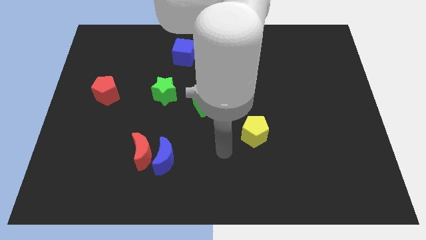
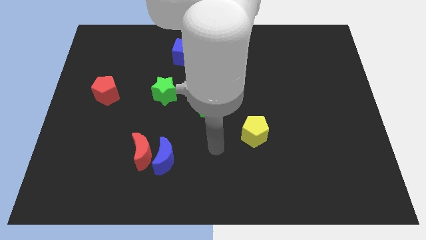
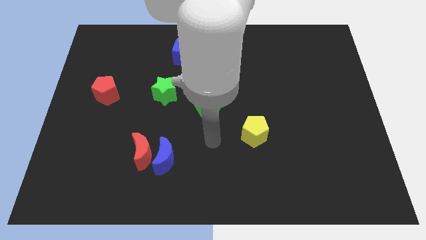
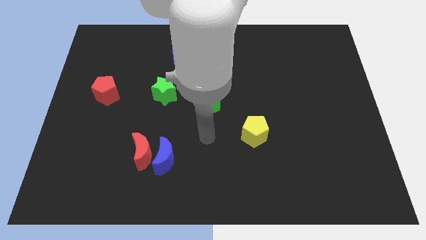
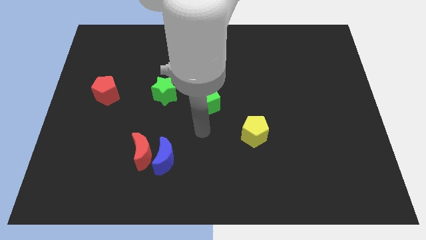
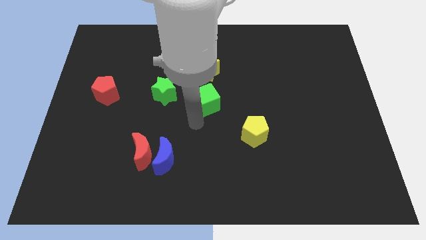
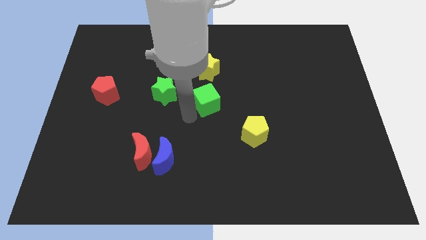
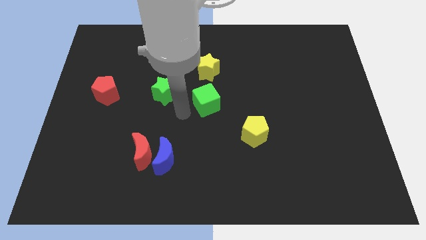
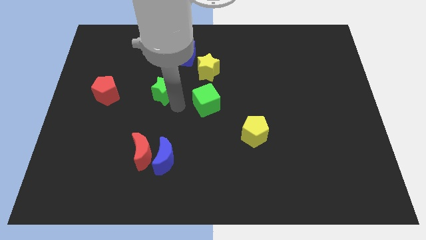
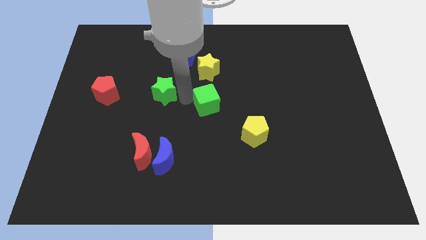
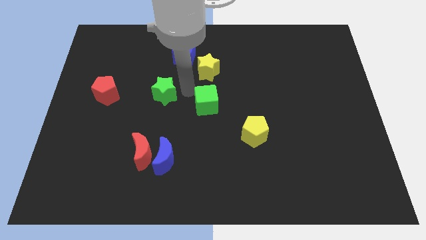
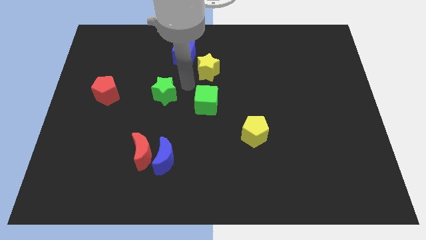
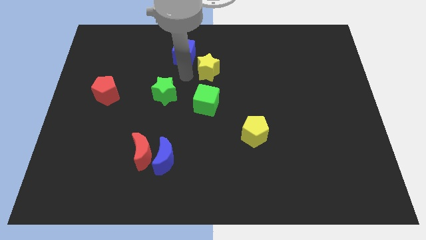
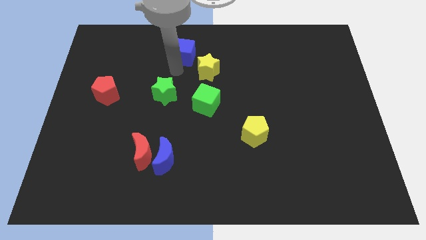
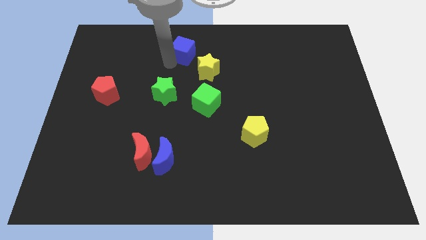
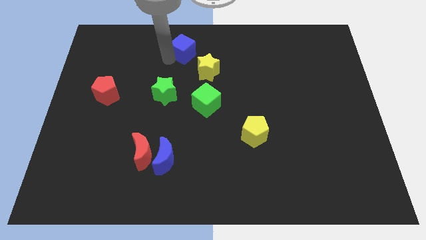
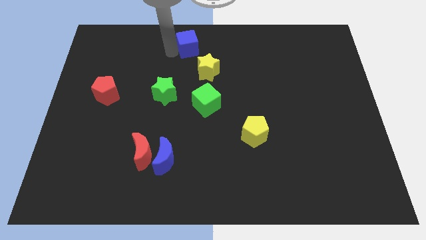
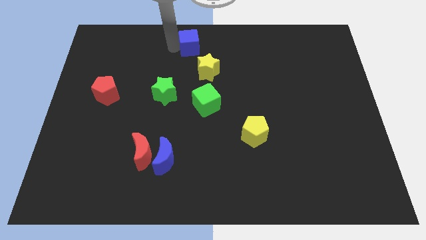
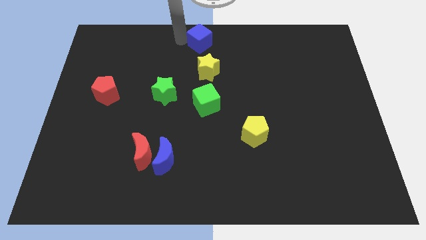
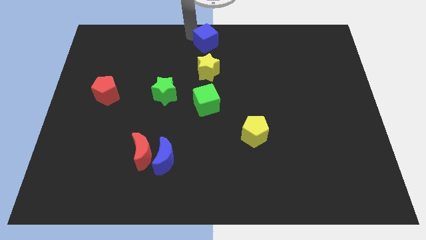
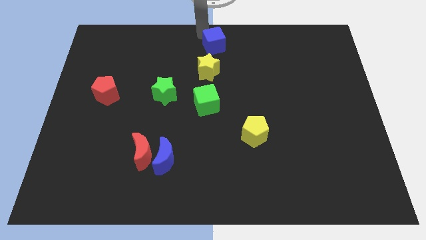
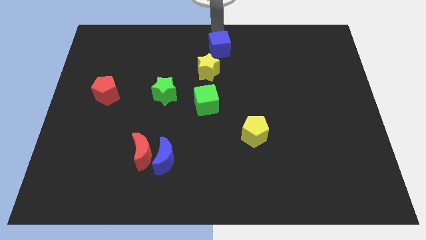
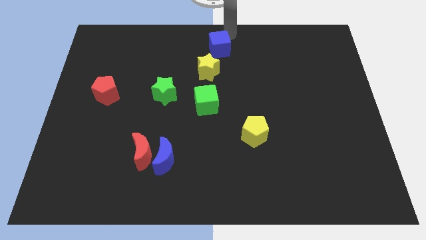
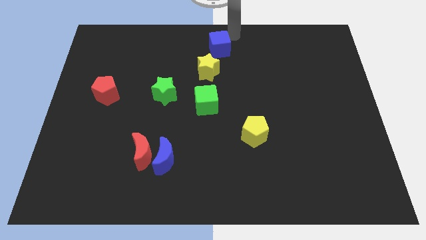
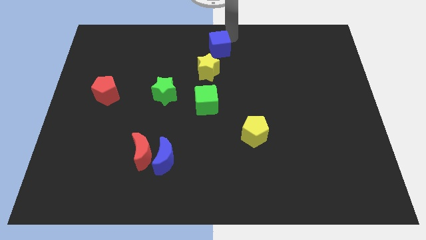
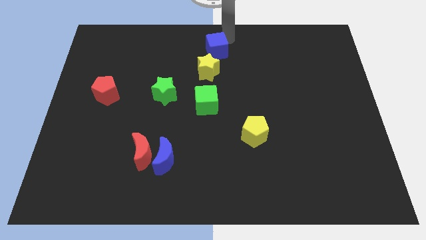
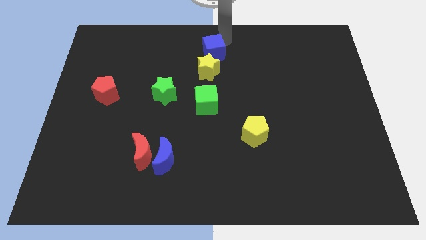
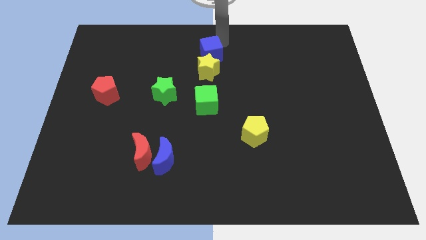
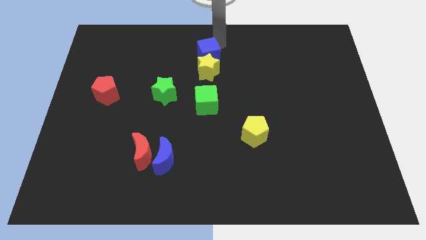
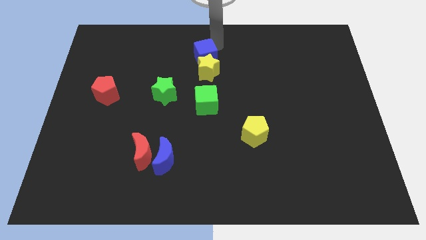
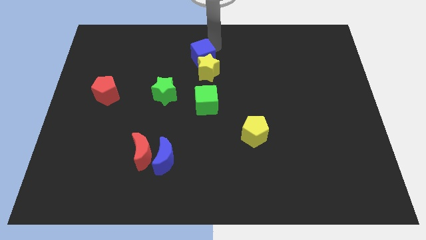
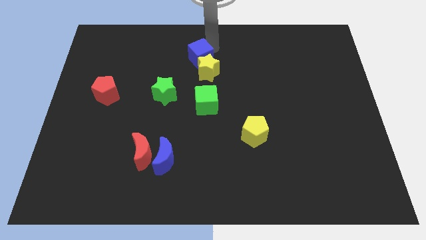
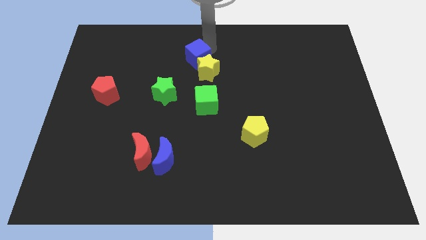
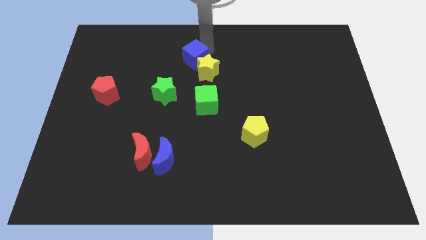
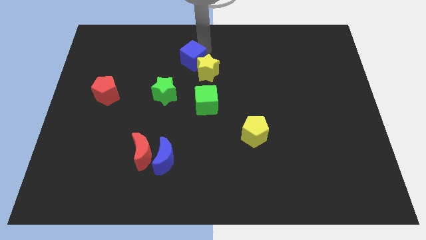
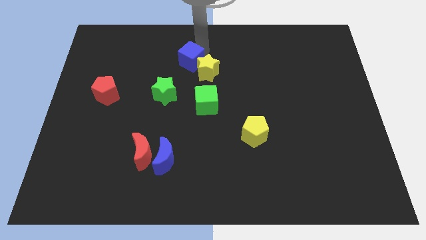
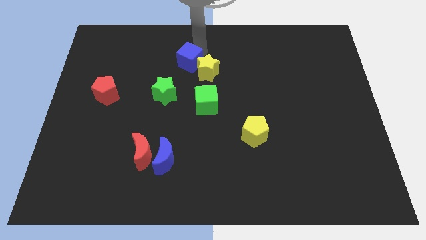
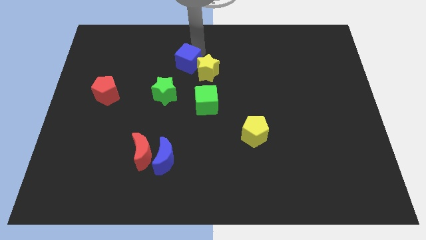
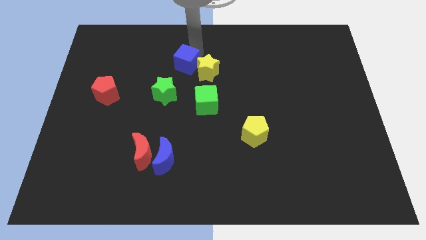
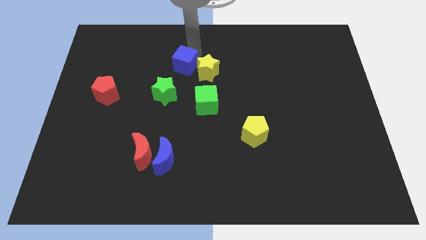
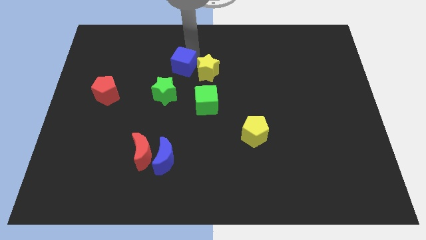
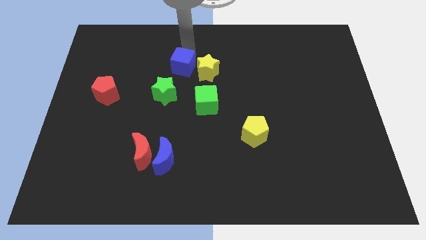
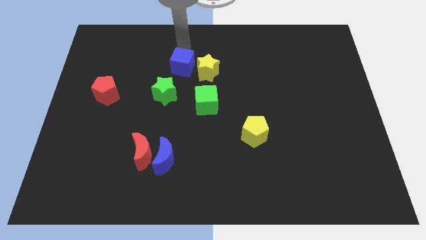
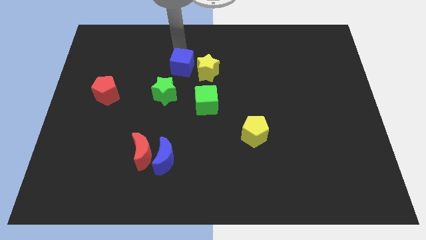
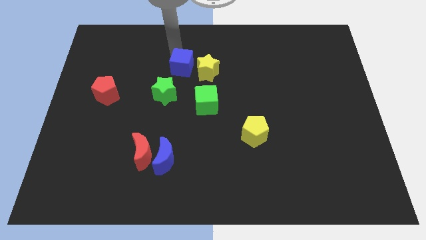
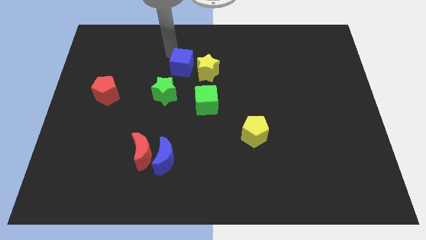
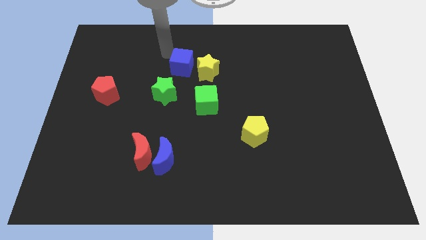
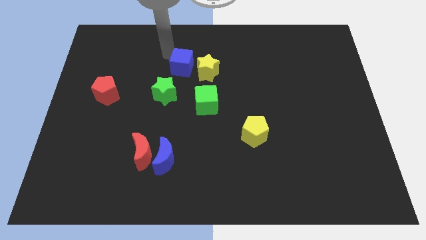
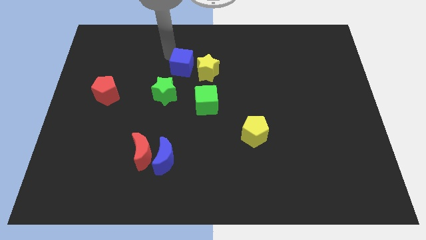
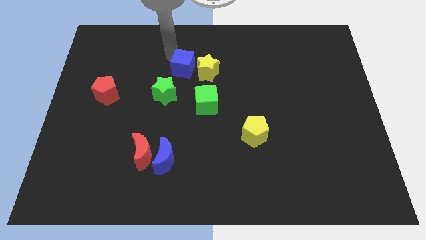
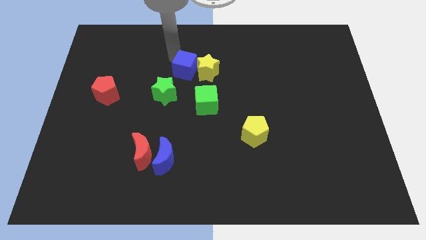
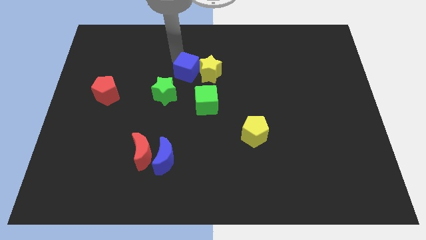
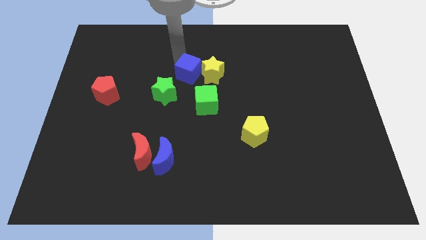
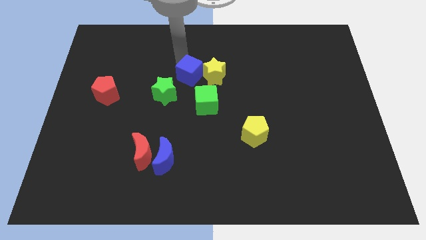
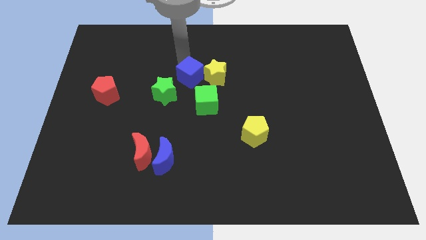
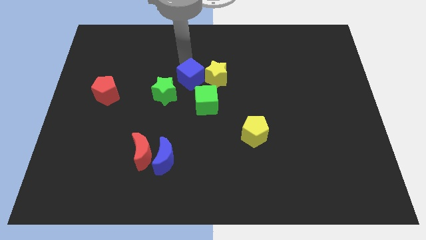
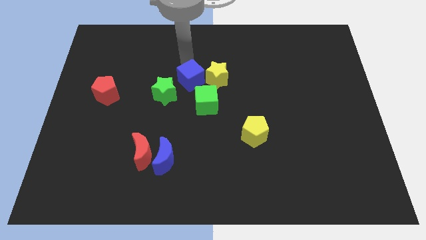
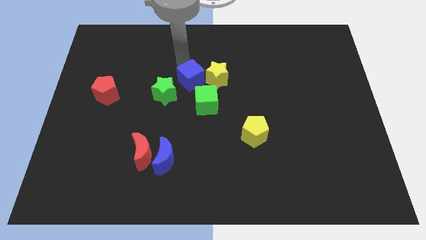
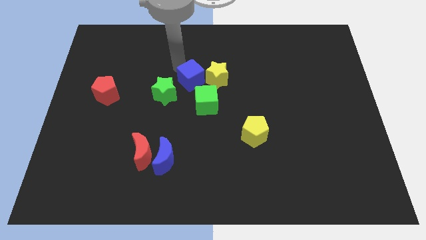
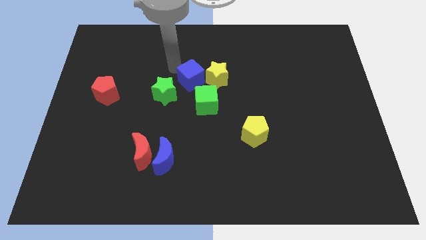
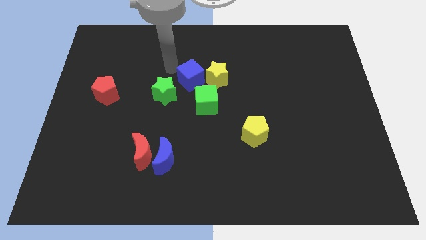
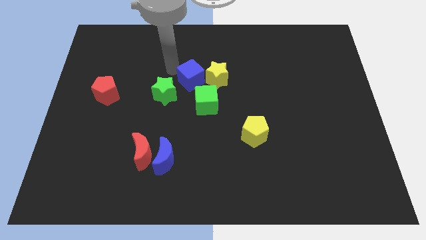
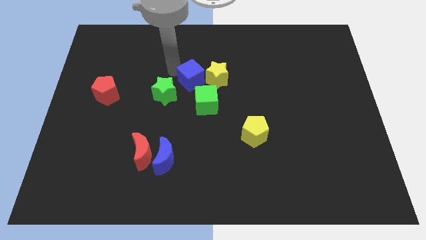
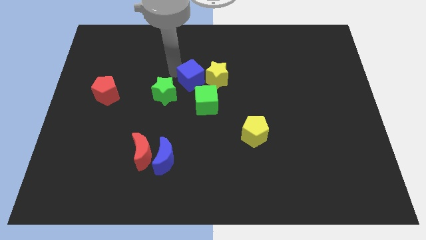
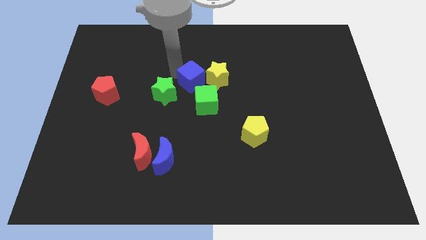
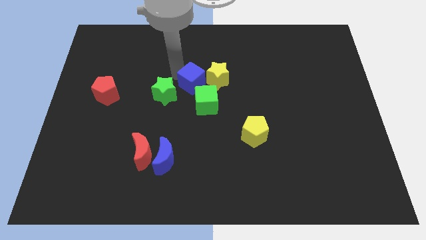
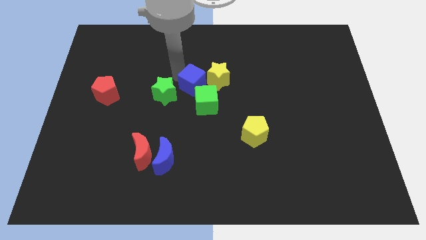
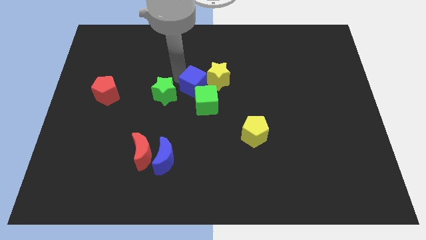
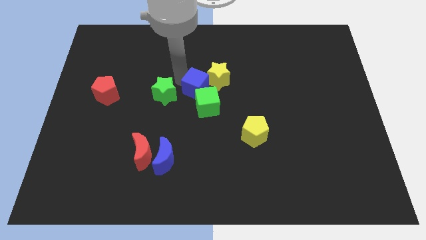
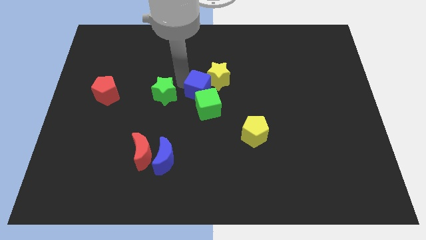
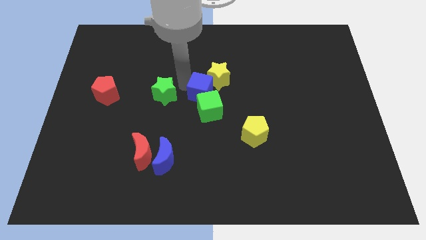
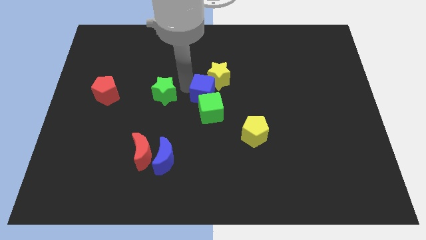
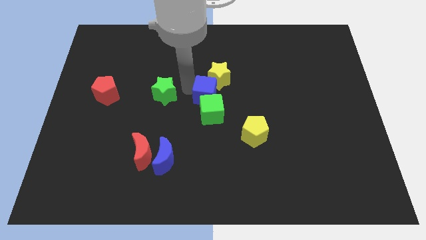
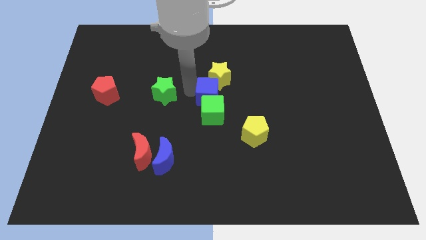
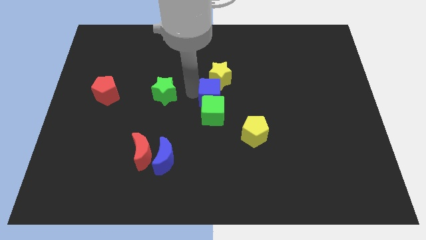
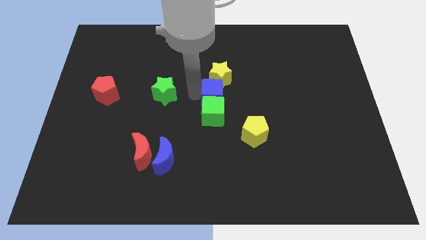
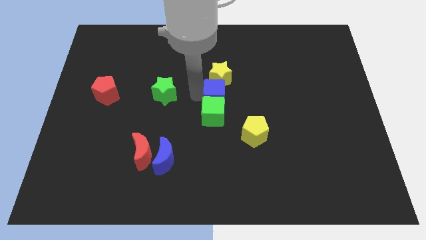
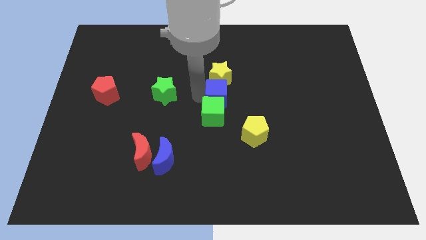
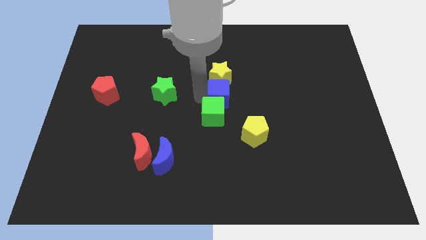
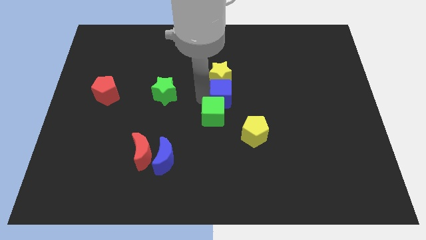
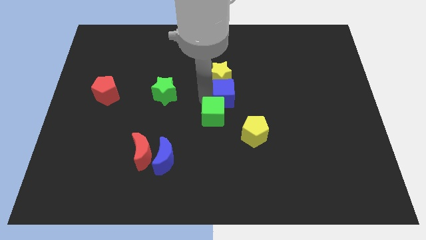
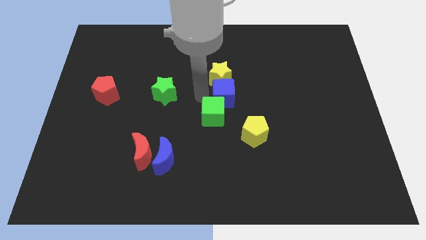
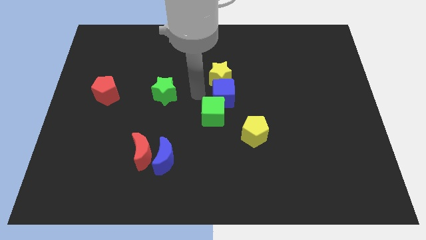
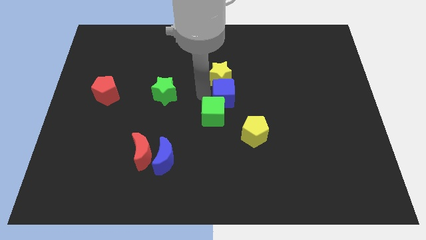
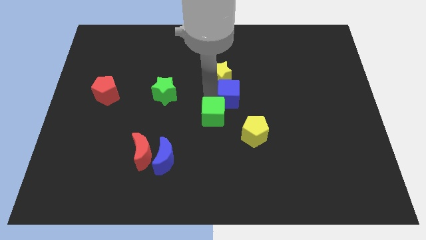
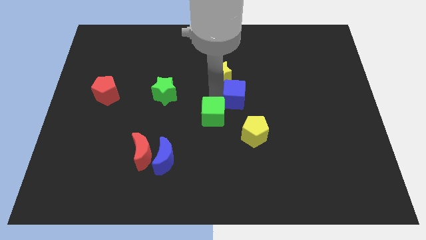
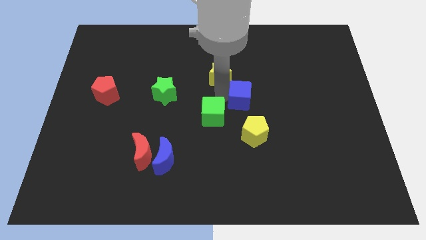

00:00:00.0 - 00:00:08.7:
move the blue cube down and right
